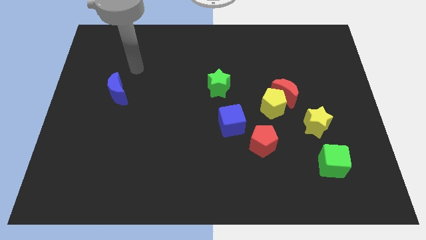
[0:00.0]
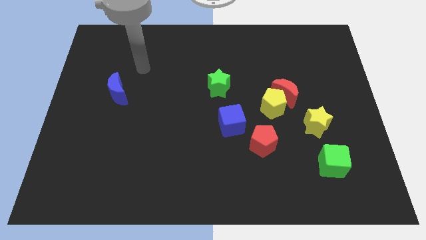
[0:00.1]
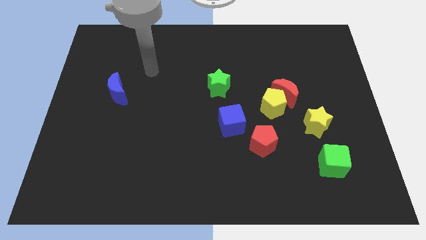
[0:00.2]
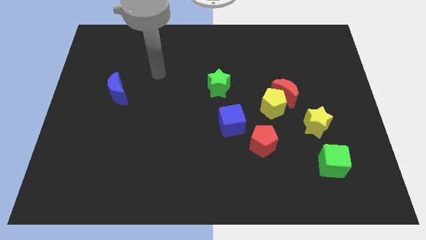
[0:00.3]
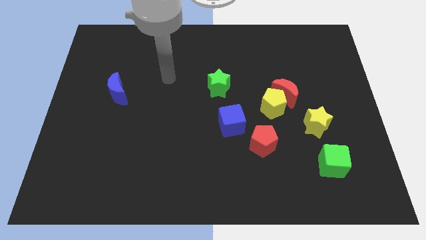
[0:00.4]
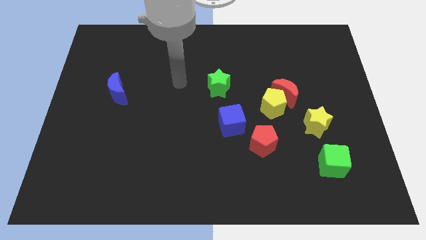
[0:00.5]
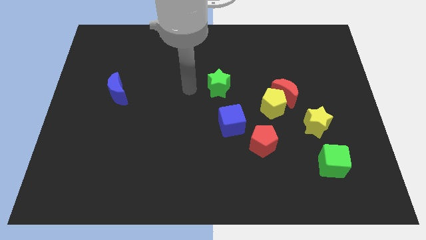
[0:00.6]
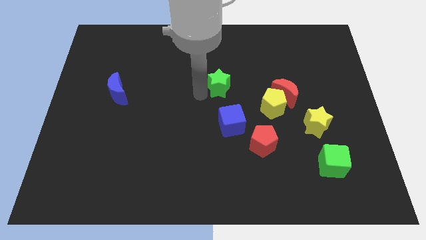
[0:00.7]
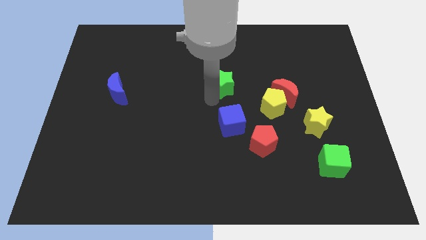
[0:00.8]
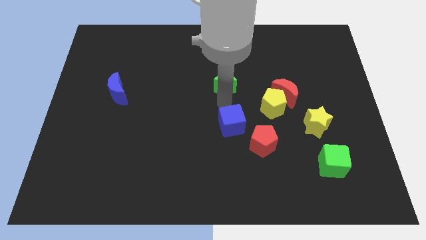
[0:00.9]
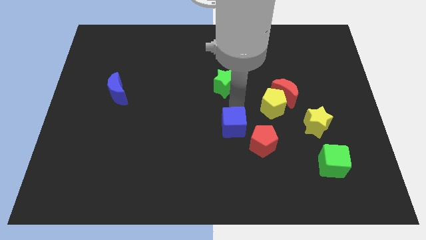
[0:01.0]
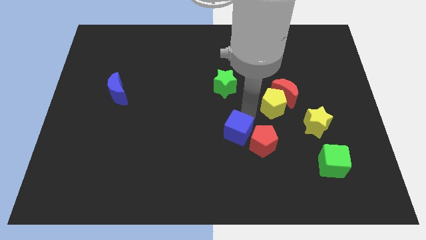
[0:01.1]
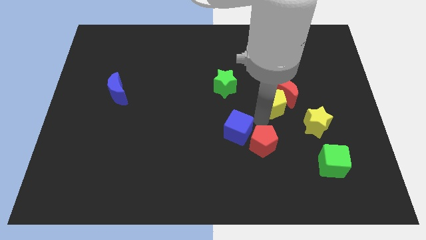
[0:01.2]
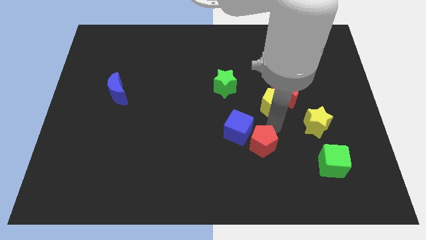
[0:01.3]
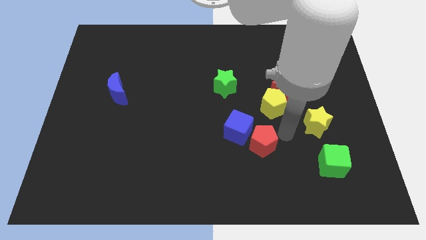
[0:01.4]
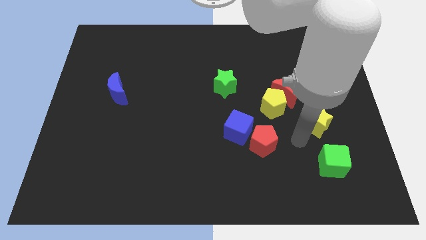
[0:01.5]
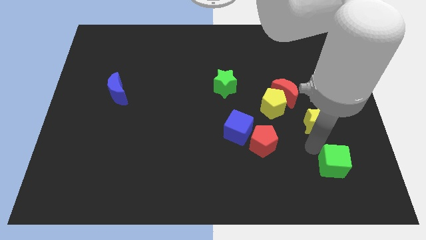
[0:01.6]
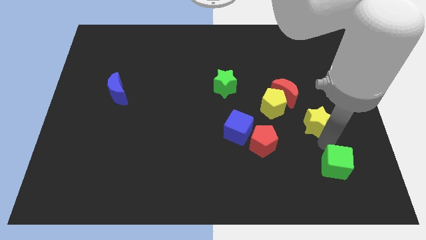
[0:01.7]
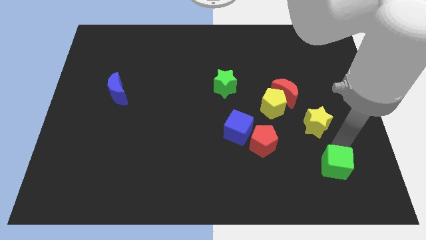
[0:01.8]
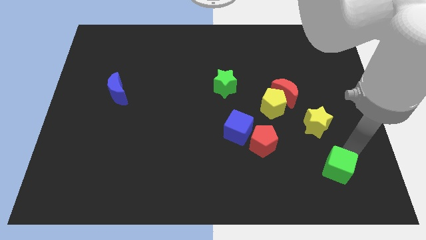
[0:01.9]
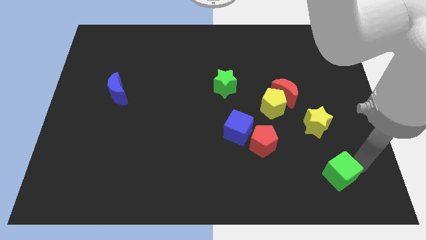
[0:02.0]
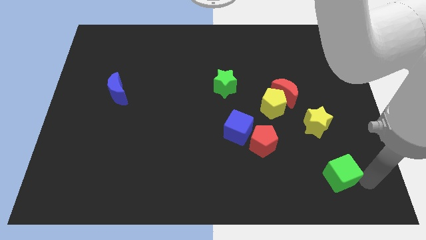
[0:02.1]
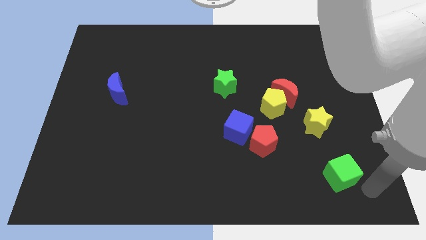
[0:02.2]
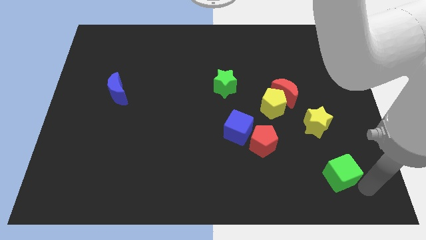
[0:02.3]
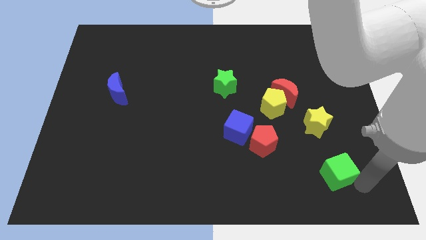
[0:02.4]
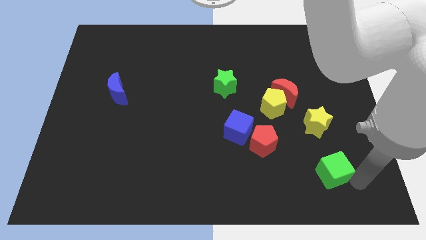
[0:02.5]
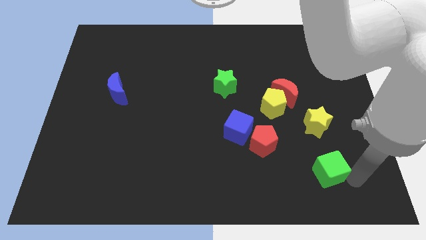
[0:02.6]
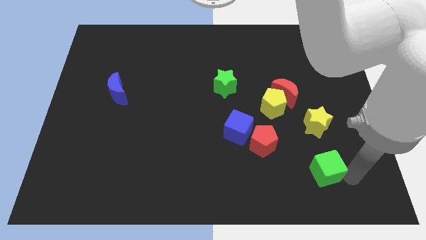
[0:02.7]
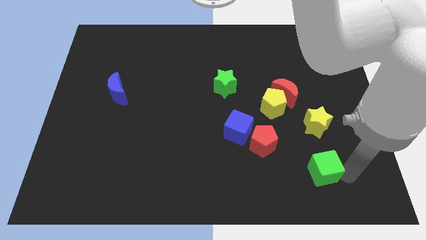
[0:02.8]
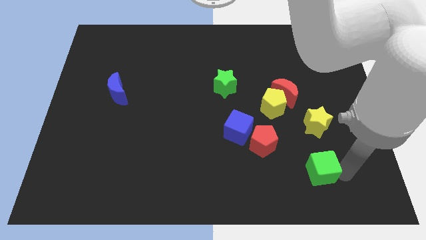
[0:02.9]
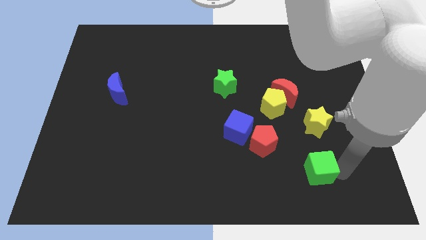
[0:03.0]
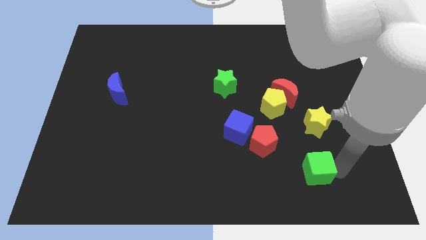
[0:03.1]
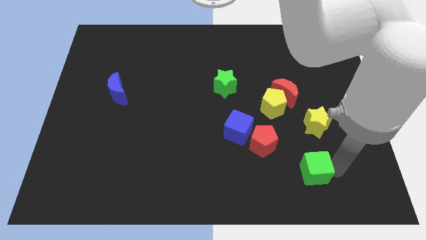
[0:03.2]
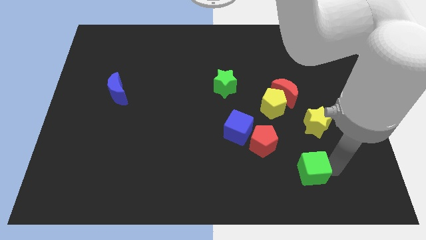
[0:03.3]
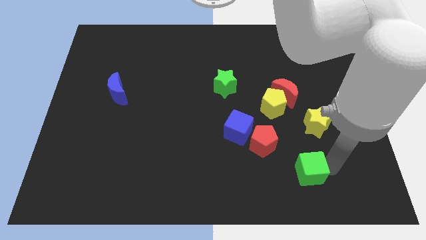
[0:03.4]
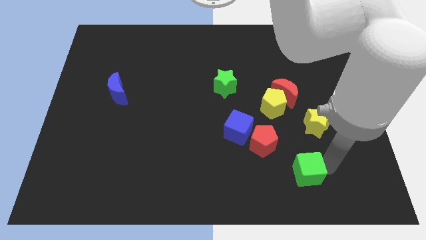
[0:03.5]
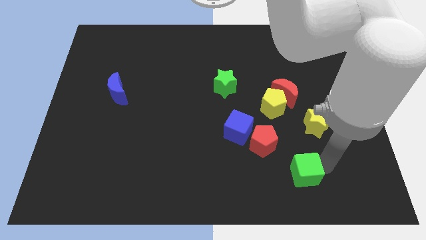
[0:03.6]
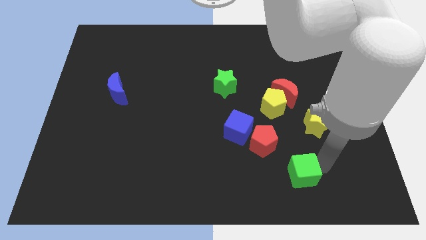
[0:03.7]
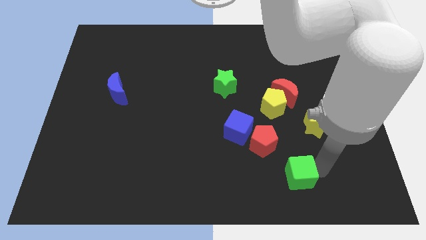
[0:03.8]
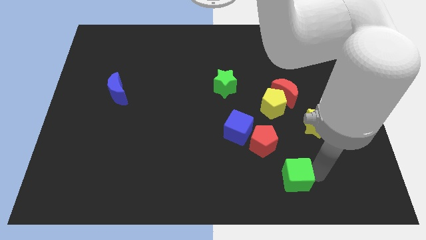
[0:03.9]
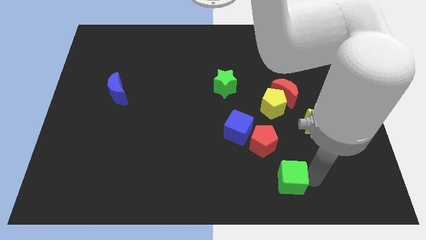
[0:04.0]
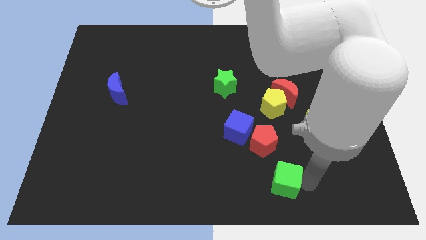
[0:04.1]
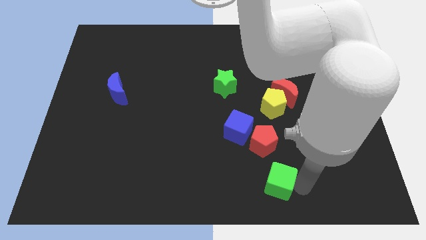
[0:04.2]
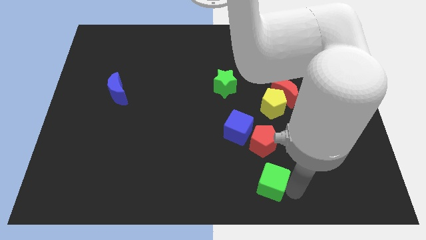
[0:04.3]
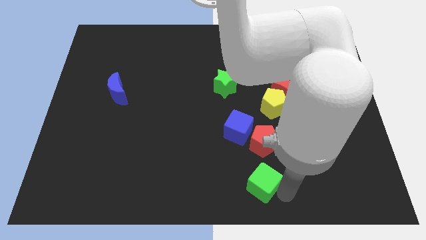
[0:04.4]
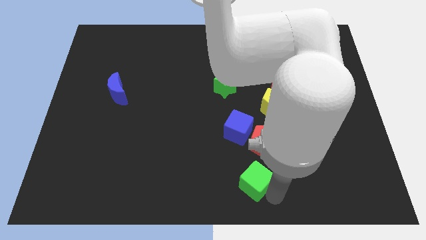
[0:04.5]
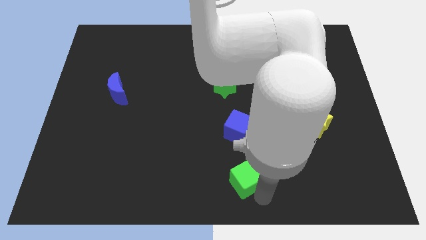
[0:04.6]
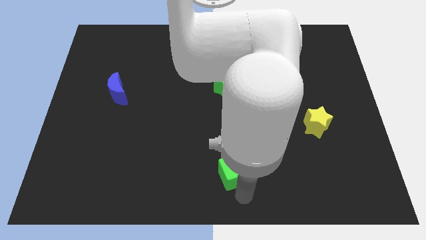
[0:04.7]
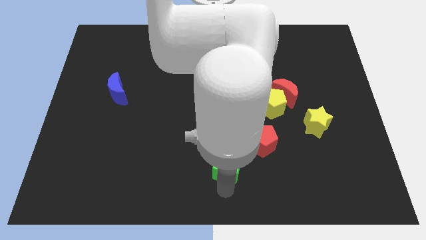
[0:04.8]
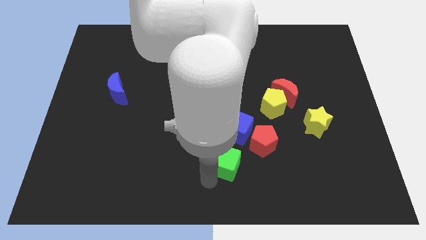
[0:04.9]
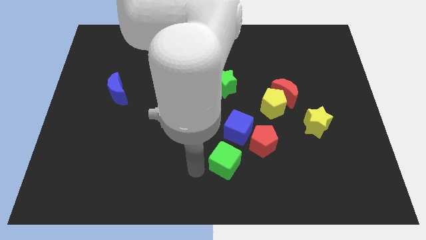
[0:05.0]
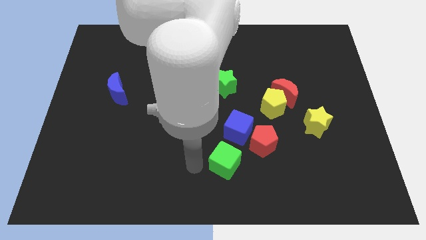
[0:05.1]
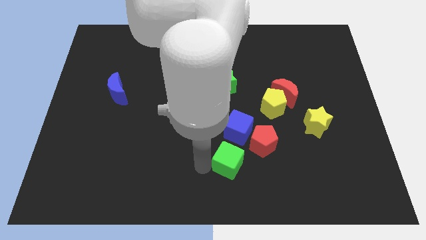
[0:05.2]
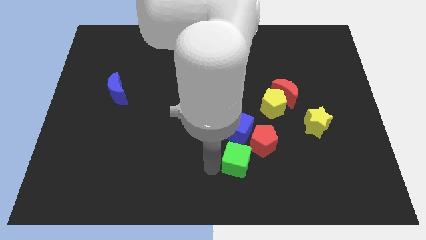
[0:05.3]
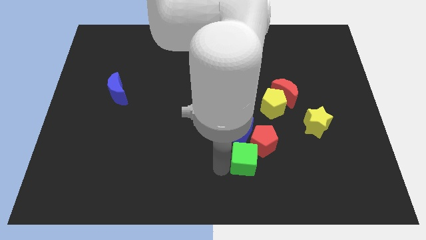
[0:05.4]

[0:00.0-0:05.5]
move the green cube next to the red pentagon

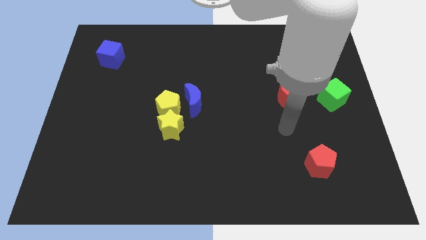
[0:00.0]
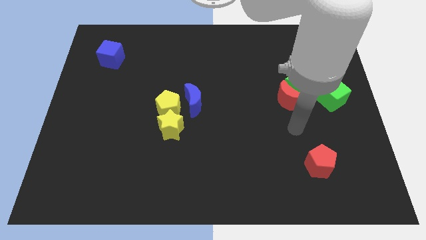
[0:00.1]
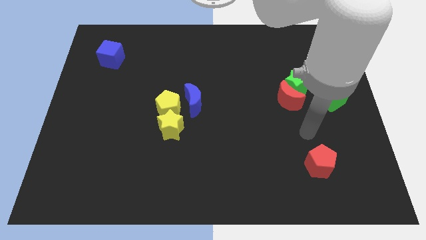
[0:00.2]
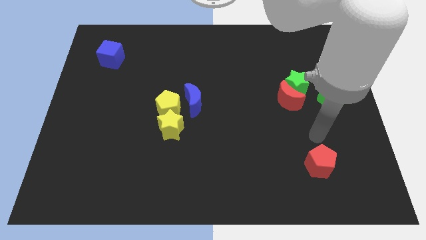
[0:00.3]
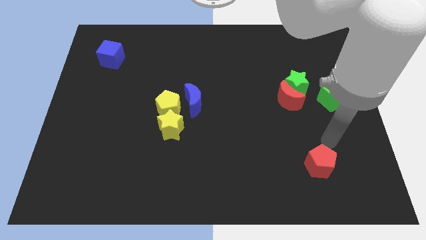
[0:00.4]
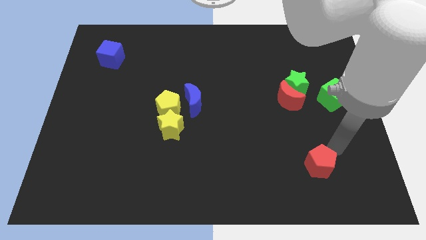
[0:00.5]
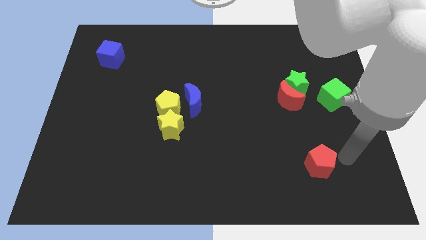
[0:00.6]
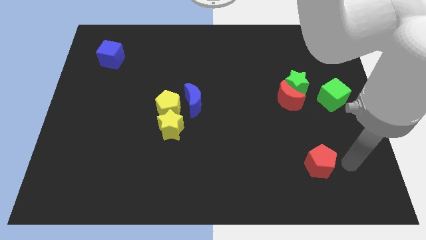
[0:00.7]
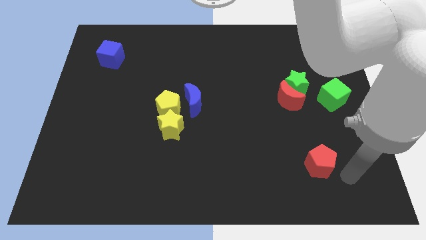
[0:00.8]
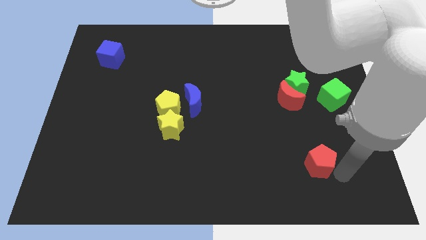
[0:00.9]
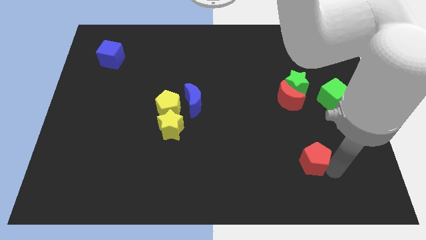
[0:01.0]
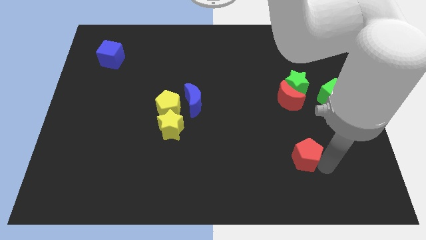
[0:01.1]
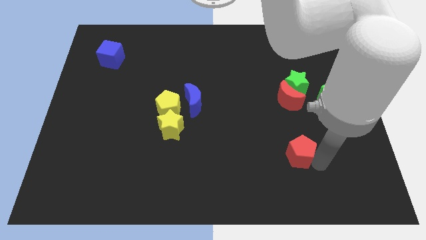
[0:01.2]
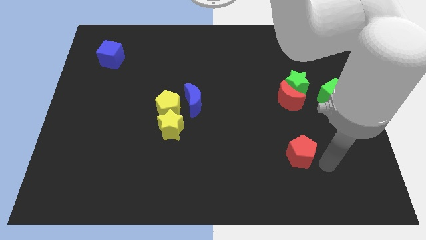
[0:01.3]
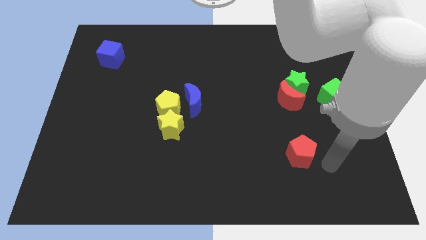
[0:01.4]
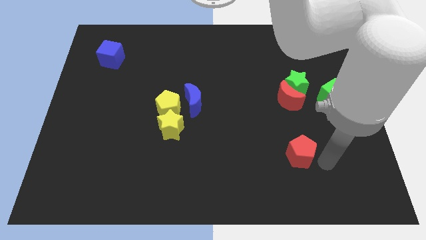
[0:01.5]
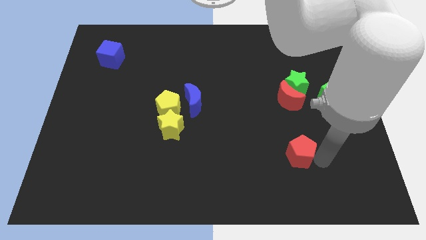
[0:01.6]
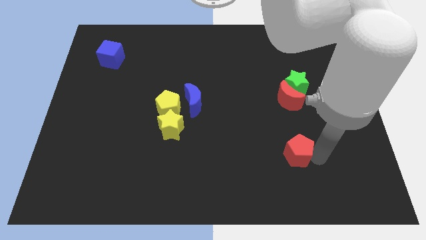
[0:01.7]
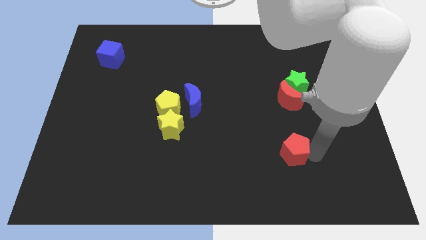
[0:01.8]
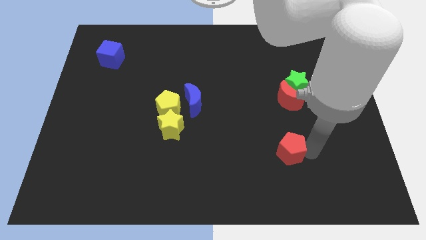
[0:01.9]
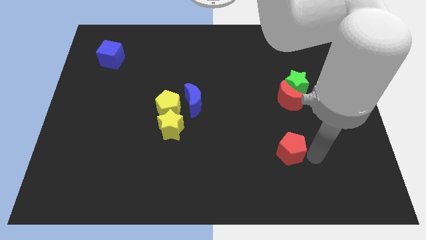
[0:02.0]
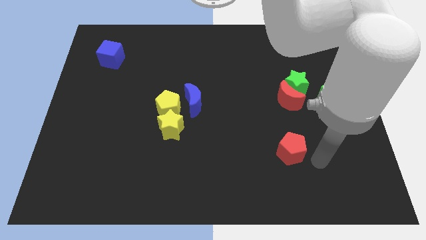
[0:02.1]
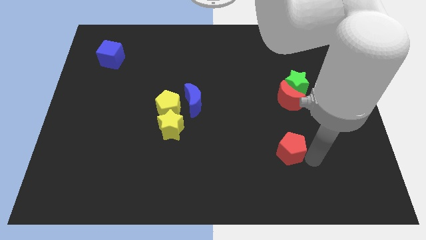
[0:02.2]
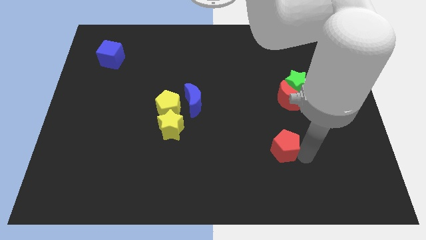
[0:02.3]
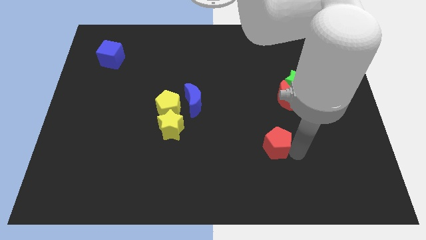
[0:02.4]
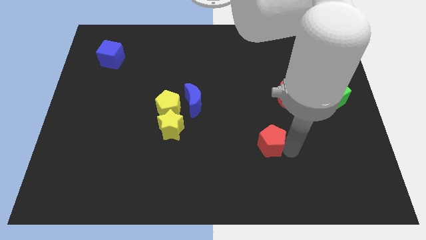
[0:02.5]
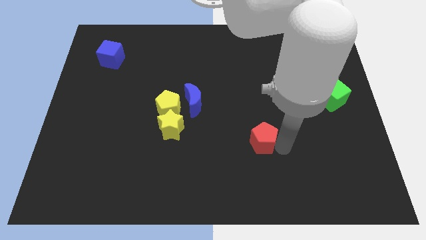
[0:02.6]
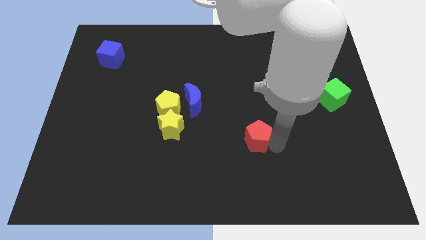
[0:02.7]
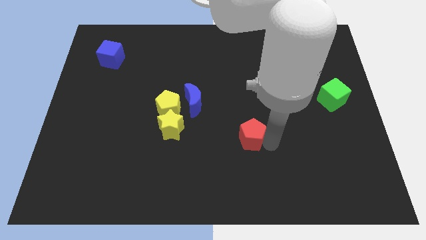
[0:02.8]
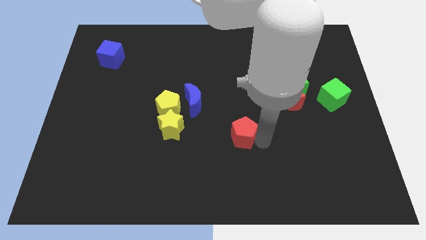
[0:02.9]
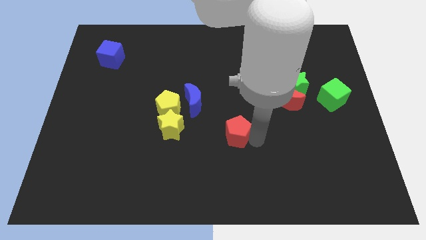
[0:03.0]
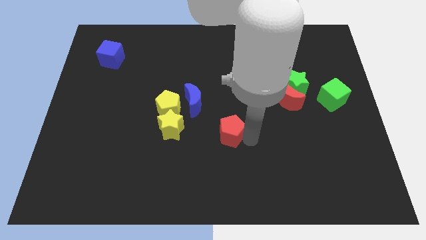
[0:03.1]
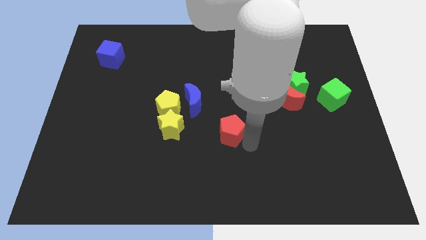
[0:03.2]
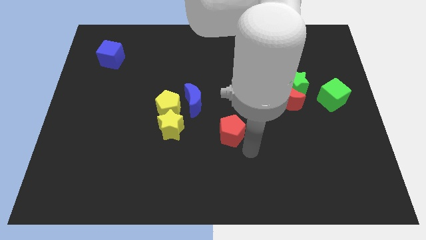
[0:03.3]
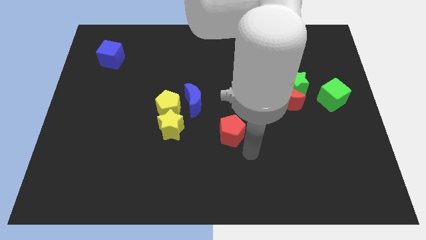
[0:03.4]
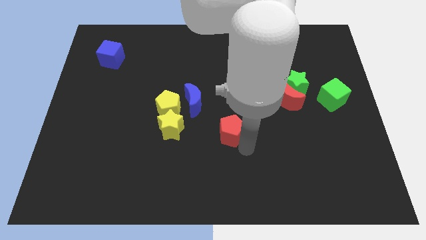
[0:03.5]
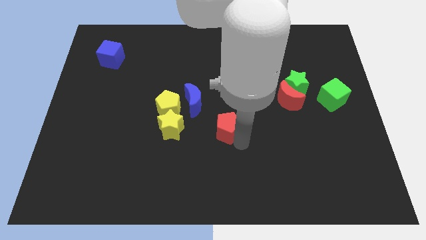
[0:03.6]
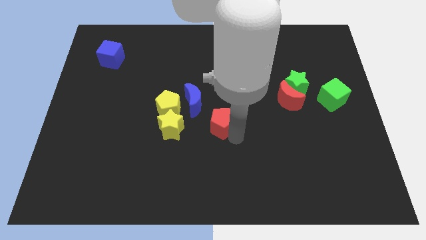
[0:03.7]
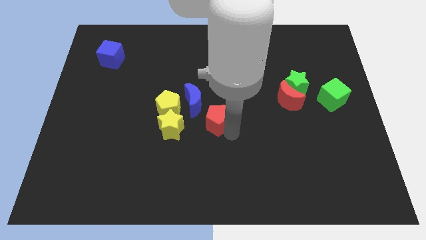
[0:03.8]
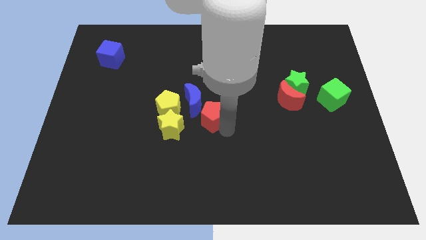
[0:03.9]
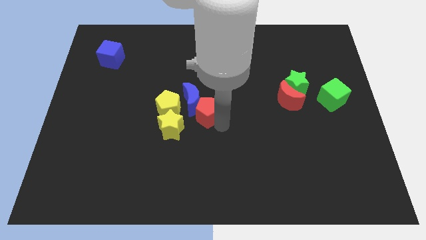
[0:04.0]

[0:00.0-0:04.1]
push the red pentagon to the blue moon
